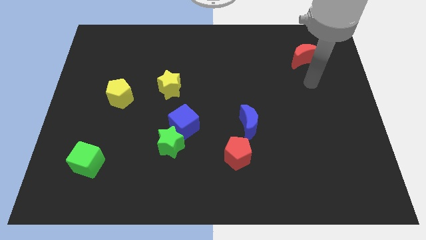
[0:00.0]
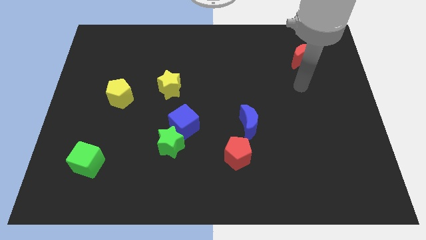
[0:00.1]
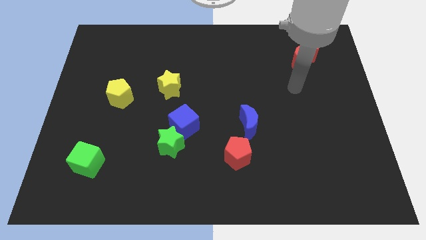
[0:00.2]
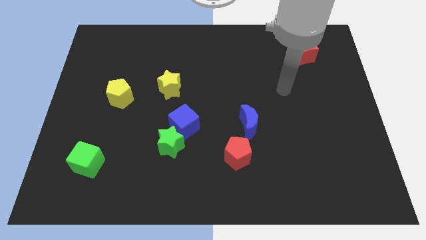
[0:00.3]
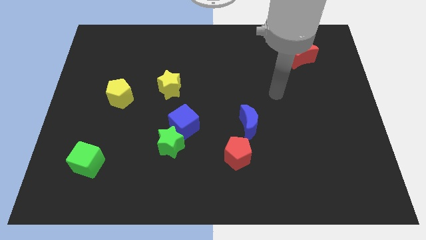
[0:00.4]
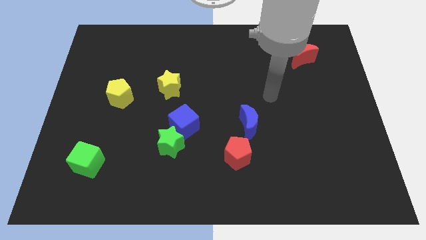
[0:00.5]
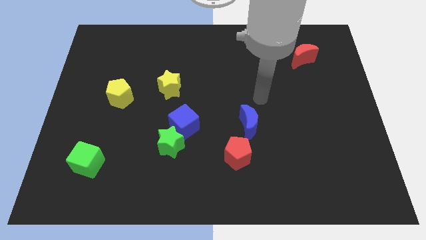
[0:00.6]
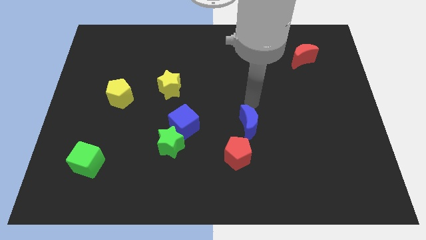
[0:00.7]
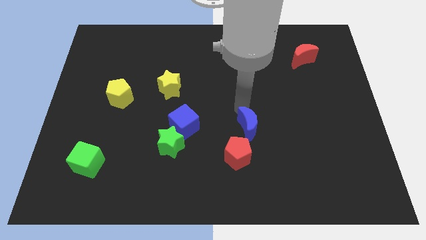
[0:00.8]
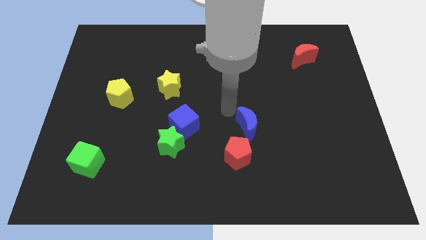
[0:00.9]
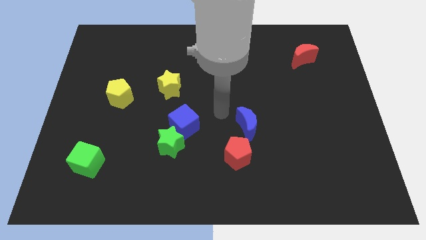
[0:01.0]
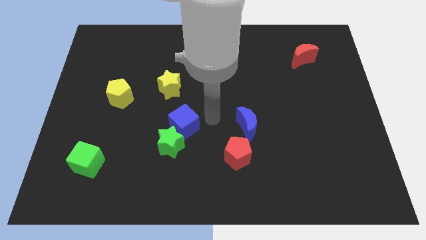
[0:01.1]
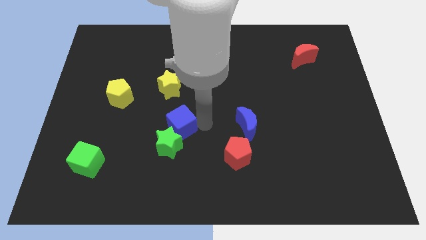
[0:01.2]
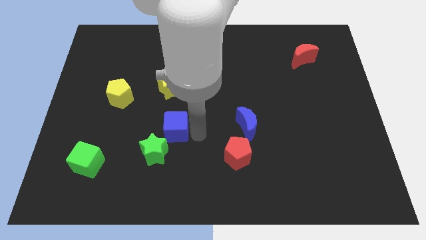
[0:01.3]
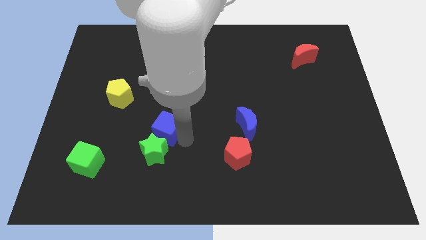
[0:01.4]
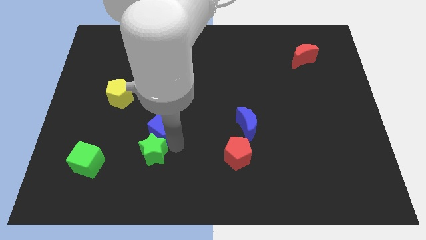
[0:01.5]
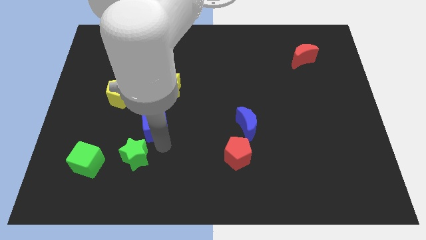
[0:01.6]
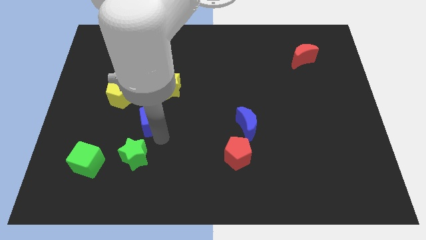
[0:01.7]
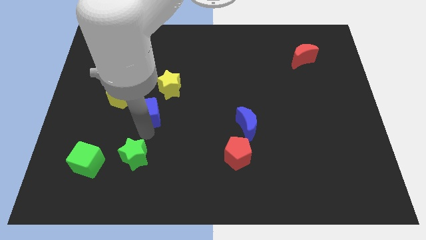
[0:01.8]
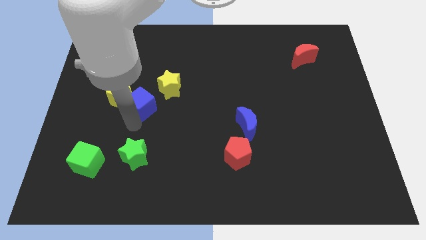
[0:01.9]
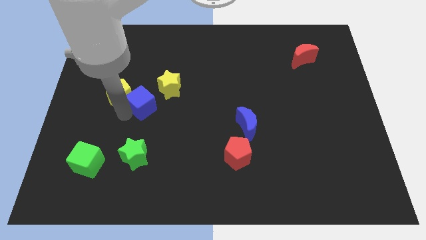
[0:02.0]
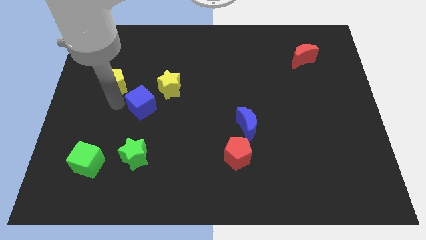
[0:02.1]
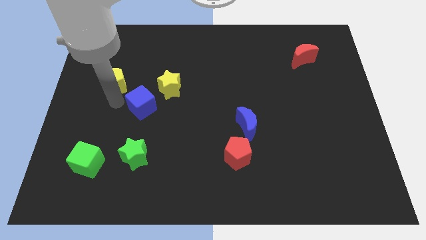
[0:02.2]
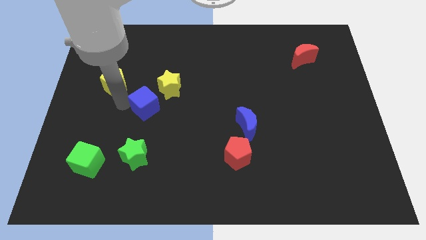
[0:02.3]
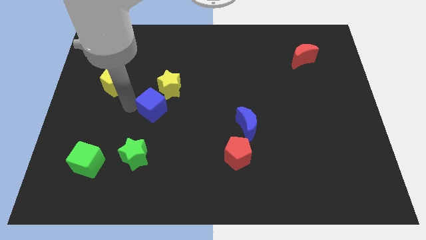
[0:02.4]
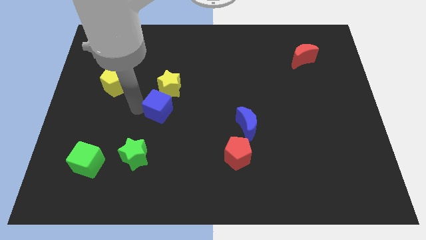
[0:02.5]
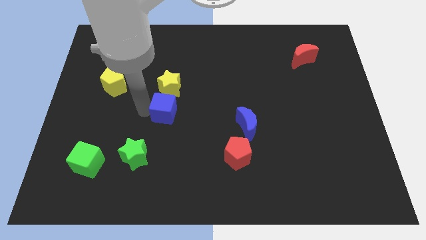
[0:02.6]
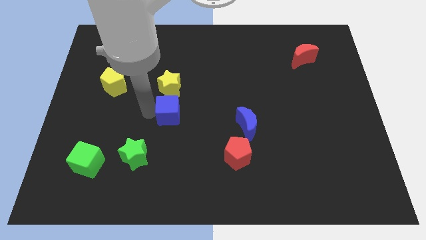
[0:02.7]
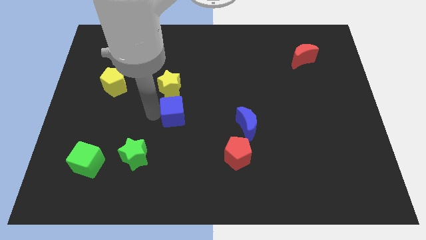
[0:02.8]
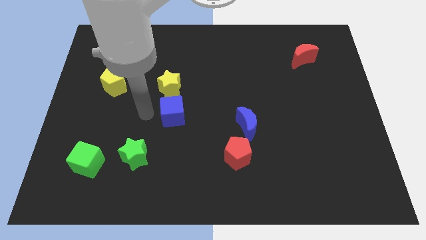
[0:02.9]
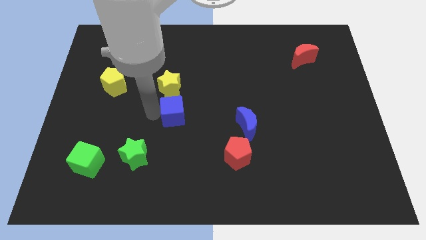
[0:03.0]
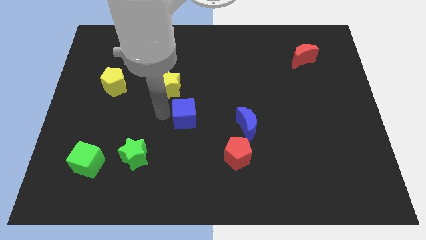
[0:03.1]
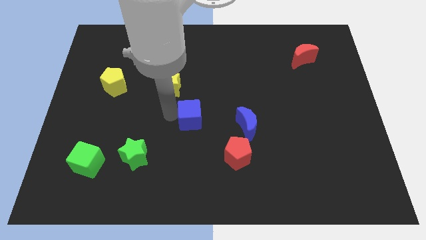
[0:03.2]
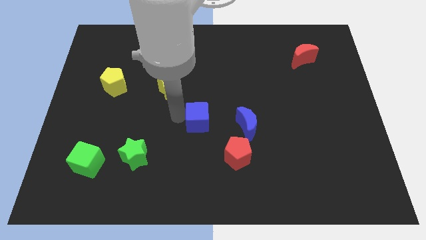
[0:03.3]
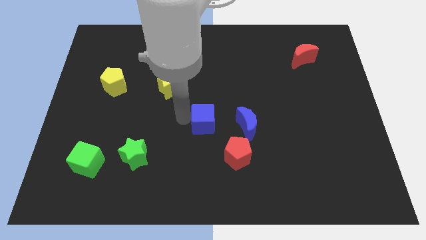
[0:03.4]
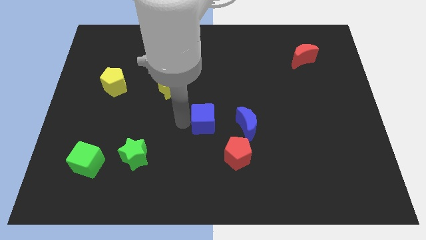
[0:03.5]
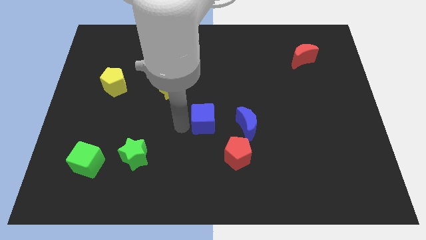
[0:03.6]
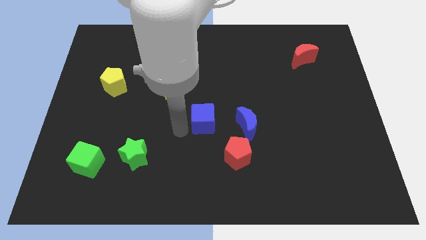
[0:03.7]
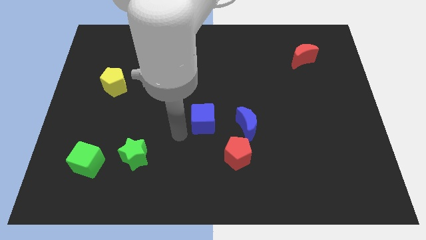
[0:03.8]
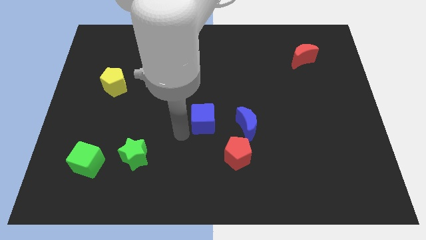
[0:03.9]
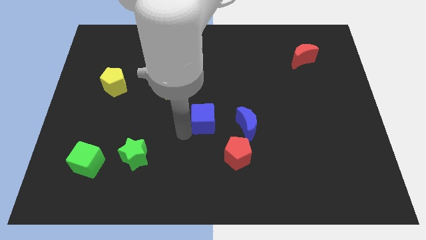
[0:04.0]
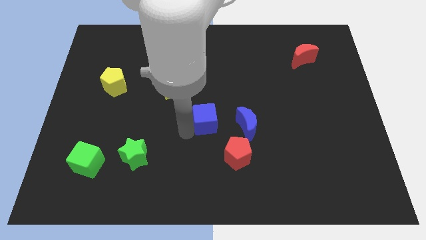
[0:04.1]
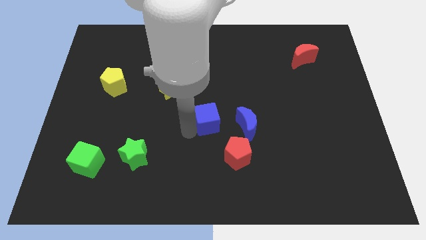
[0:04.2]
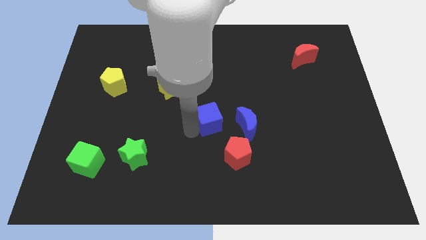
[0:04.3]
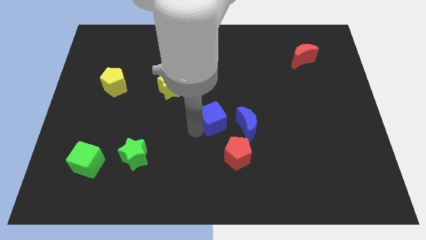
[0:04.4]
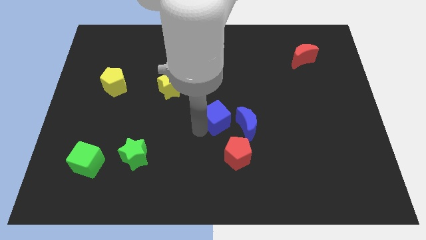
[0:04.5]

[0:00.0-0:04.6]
slide the blue cube to the right somewhat

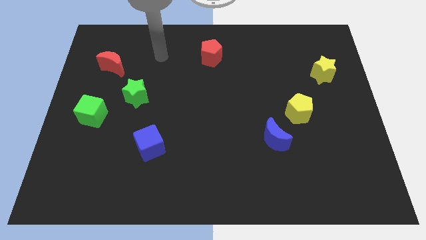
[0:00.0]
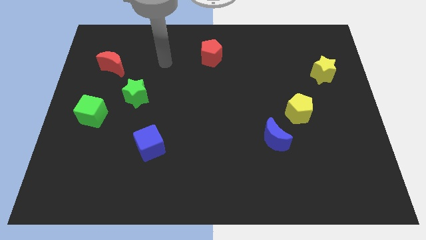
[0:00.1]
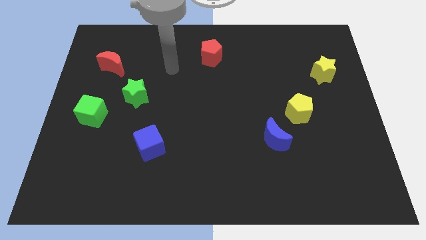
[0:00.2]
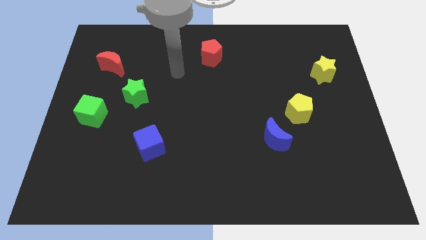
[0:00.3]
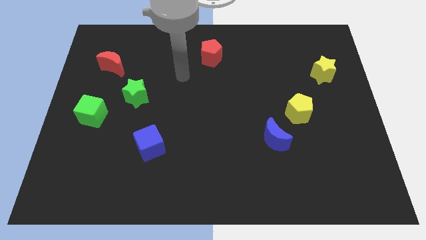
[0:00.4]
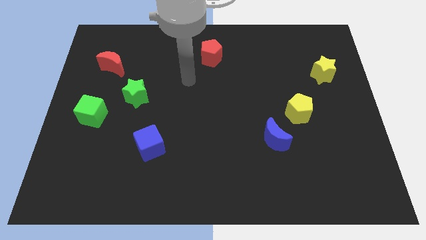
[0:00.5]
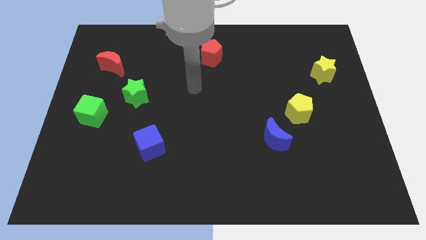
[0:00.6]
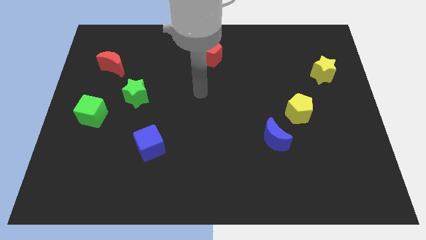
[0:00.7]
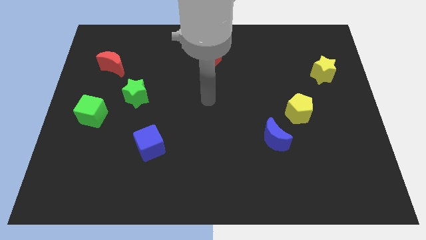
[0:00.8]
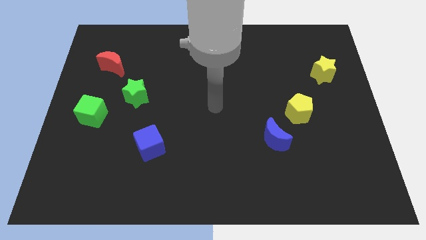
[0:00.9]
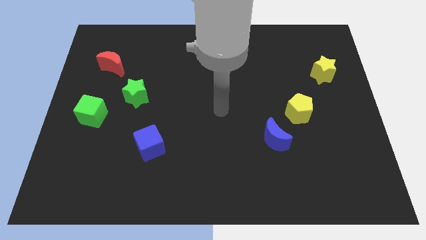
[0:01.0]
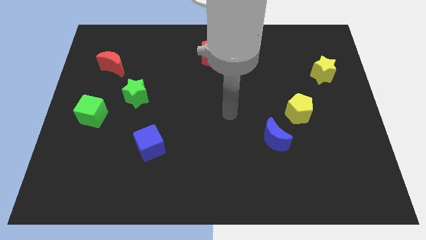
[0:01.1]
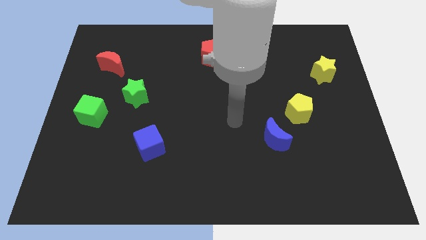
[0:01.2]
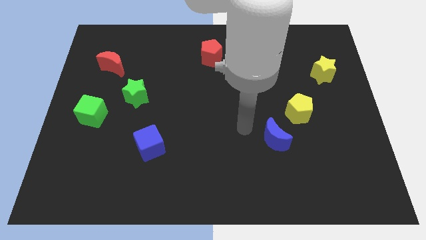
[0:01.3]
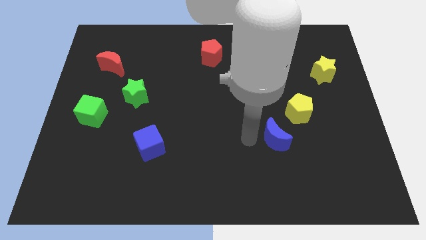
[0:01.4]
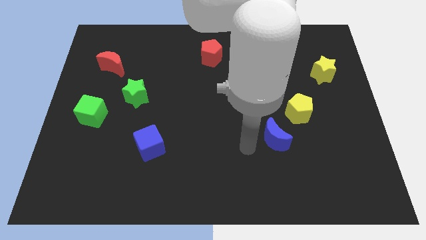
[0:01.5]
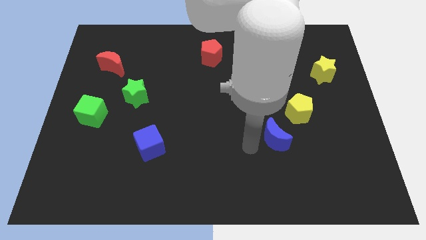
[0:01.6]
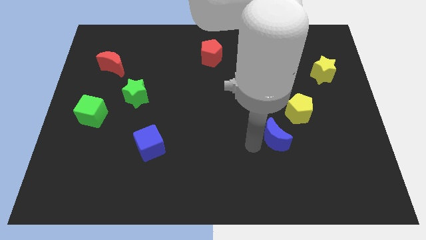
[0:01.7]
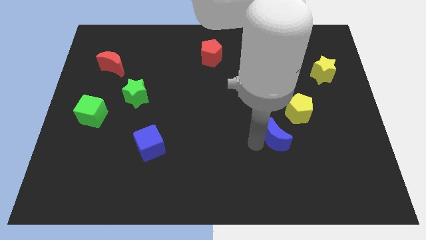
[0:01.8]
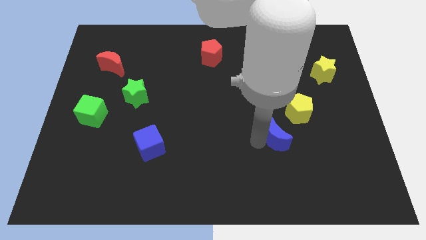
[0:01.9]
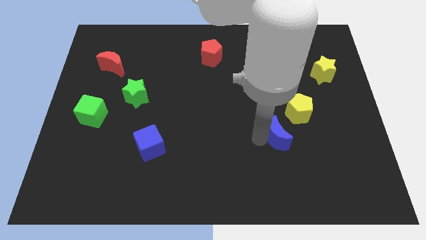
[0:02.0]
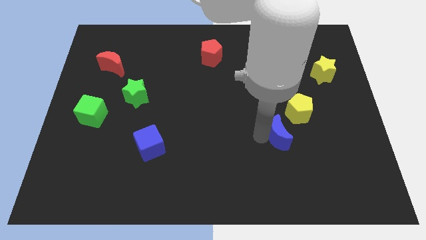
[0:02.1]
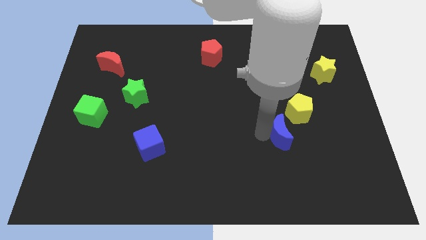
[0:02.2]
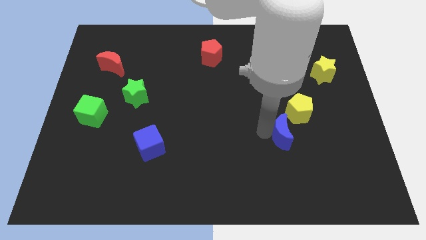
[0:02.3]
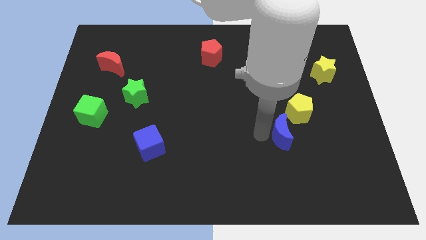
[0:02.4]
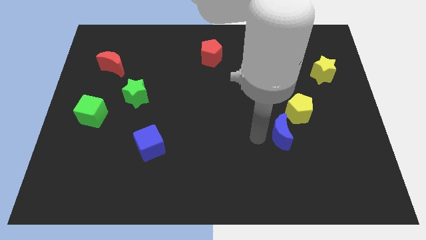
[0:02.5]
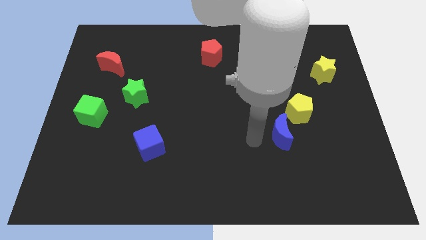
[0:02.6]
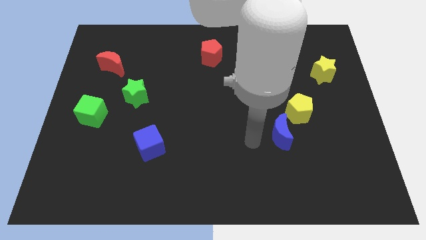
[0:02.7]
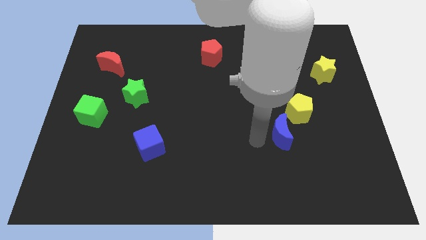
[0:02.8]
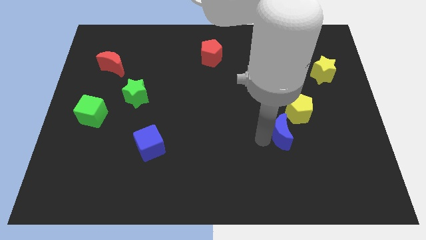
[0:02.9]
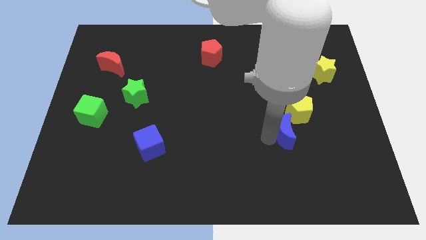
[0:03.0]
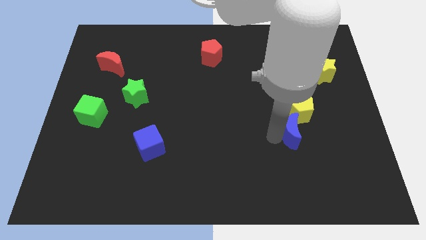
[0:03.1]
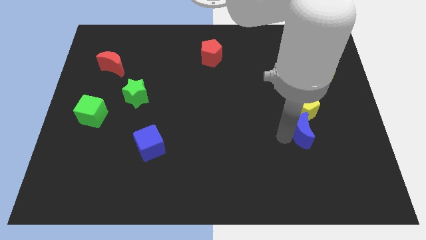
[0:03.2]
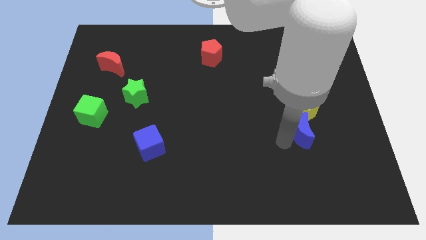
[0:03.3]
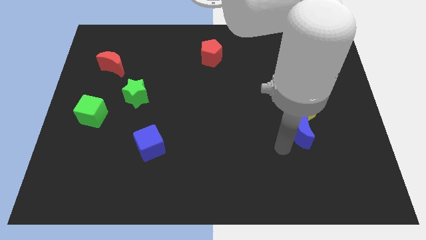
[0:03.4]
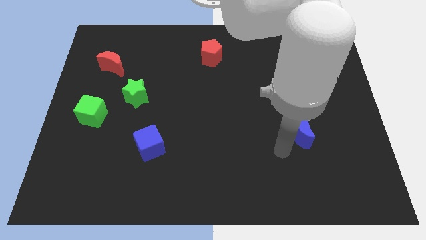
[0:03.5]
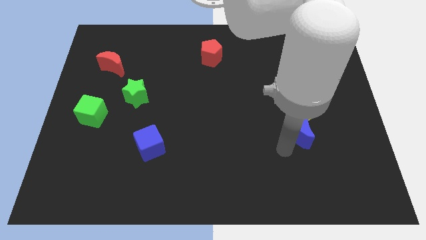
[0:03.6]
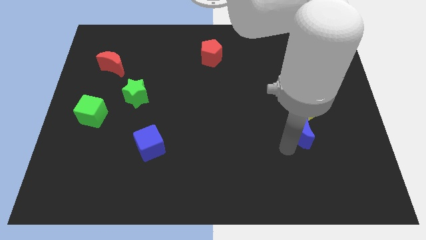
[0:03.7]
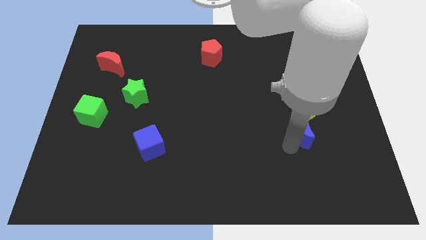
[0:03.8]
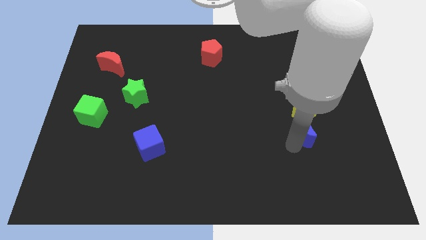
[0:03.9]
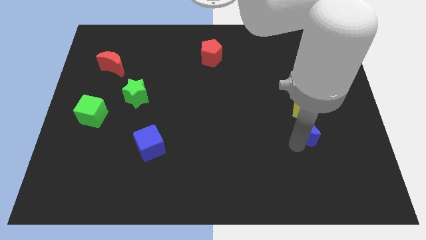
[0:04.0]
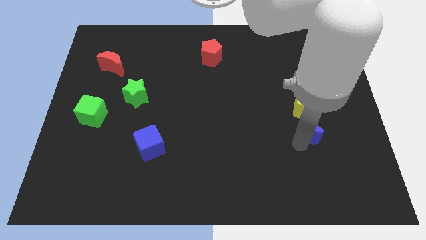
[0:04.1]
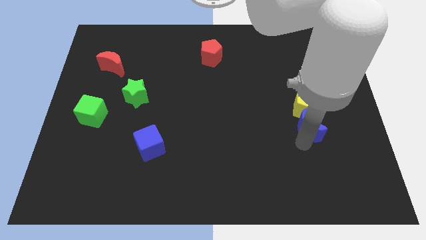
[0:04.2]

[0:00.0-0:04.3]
slide the blue moon a little bit diagonally upwards and right
